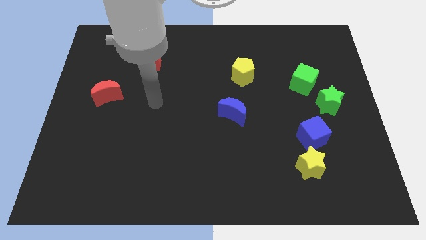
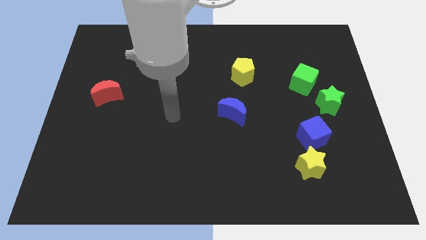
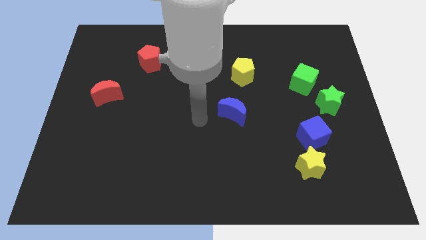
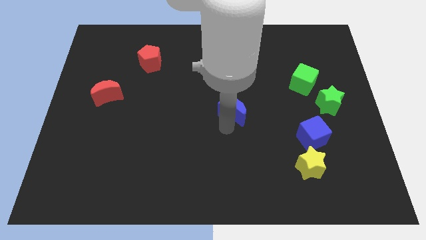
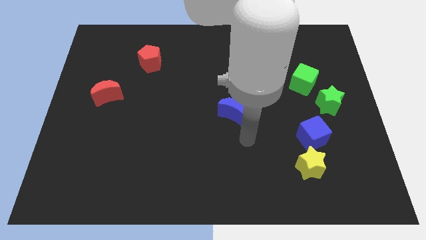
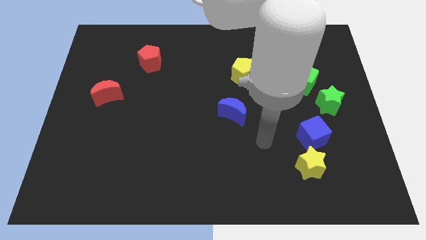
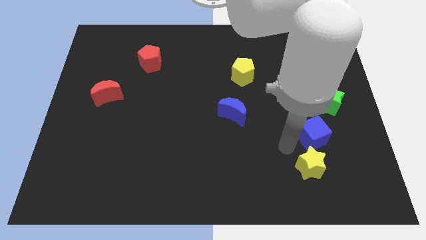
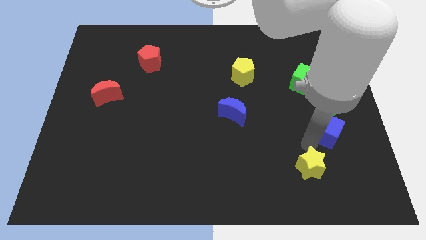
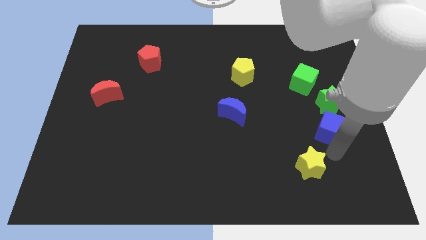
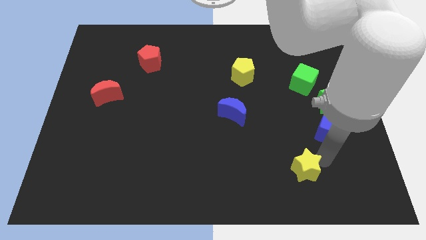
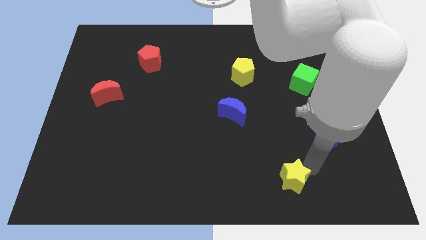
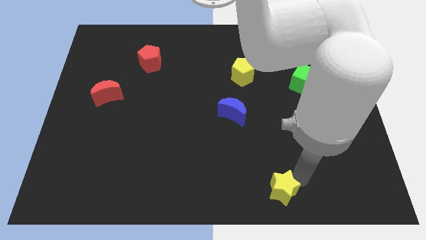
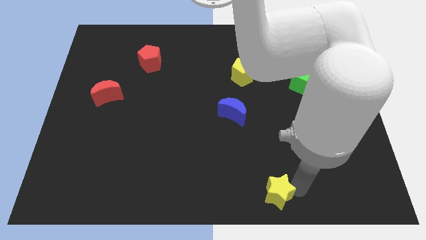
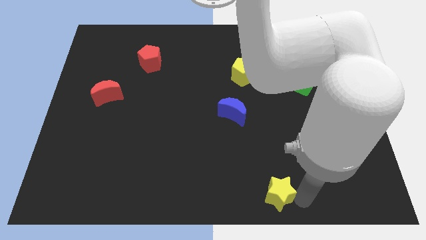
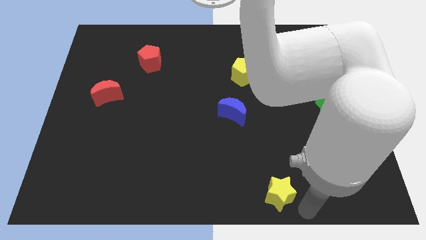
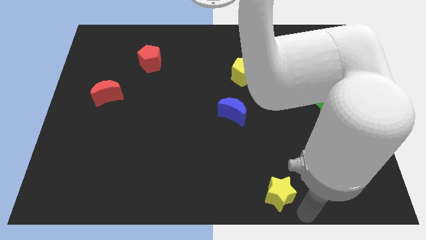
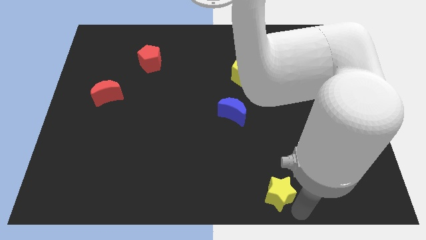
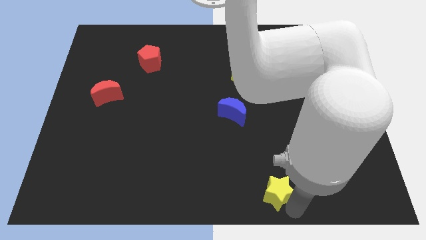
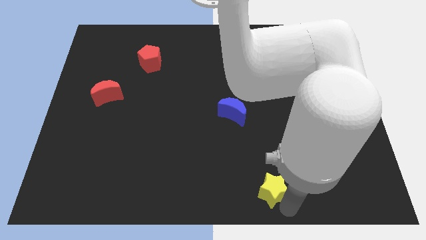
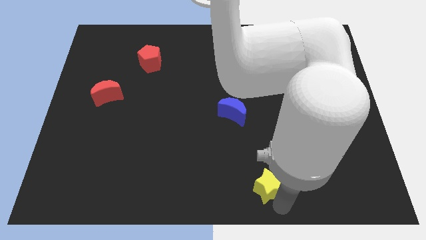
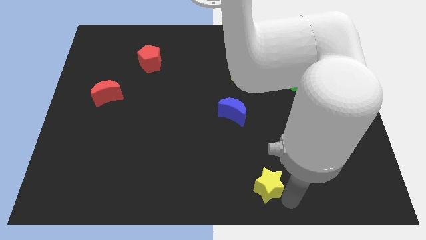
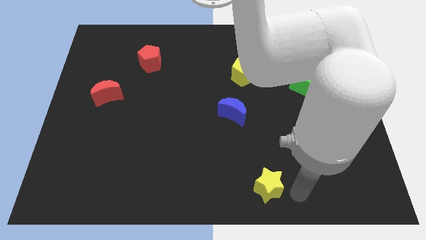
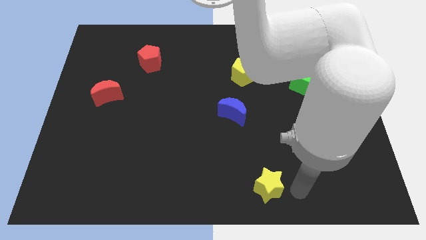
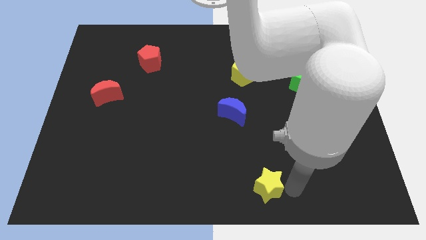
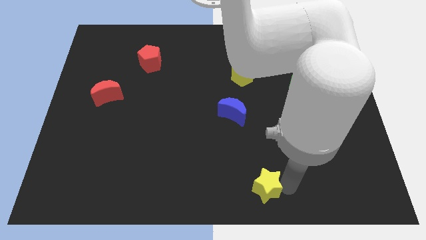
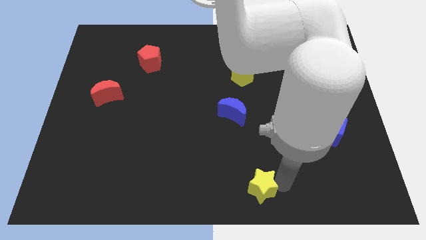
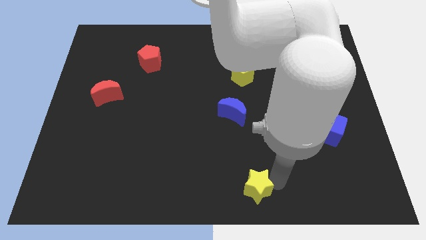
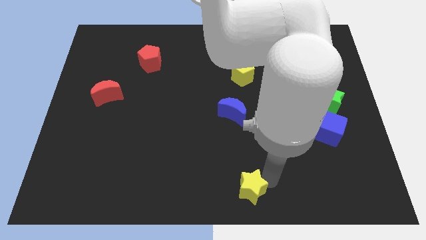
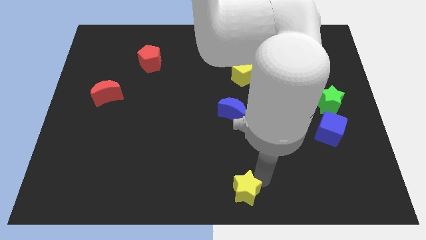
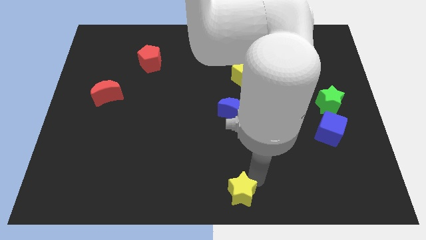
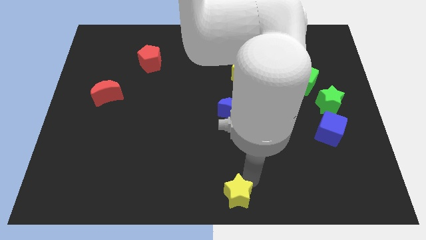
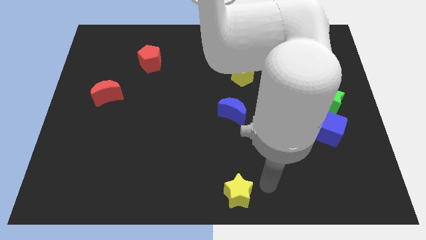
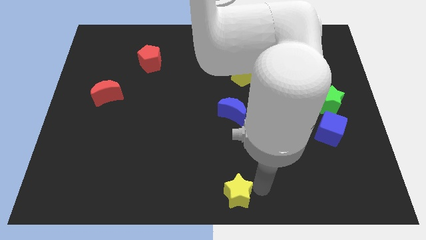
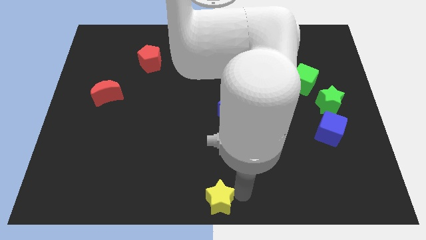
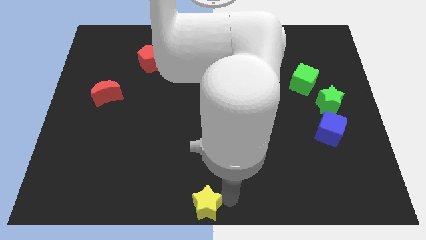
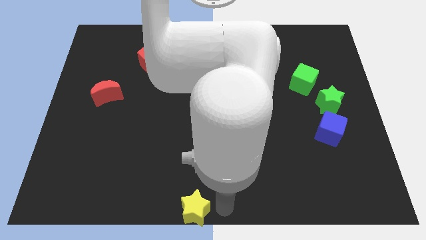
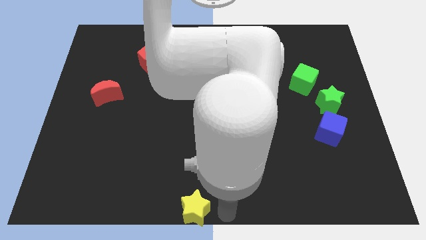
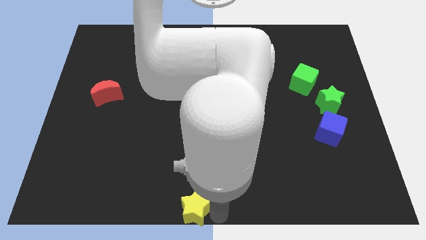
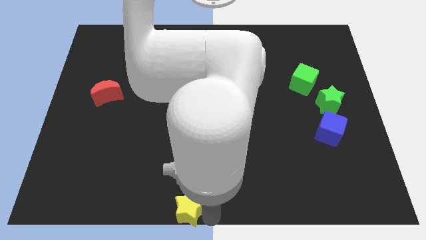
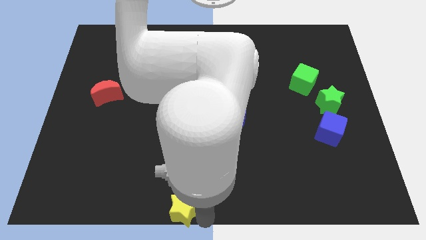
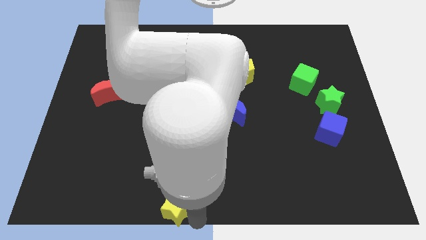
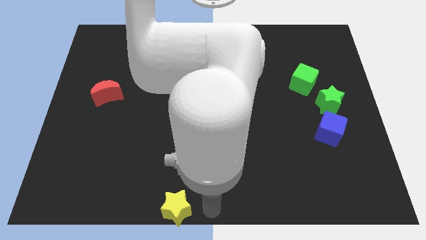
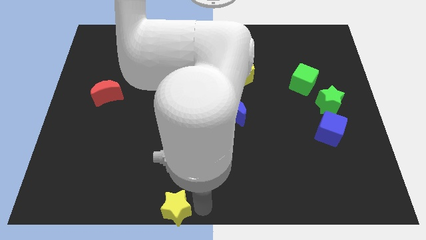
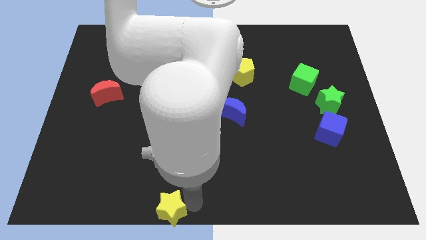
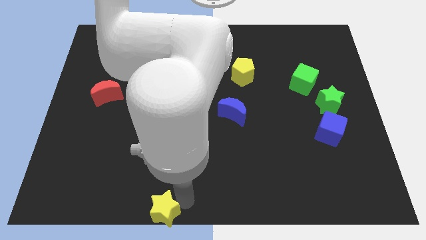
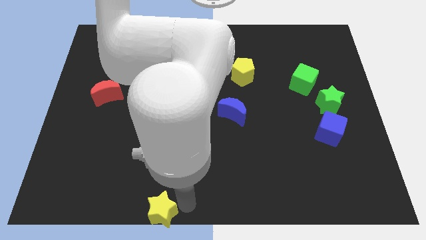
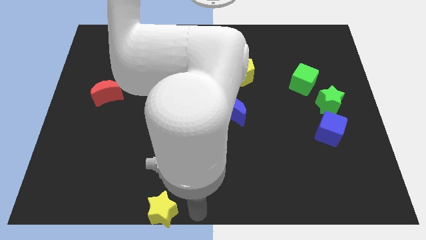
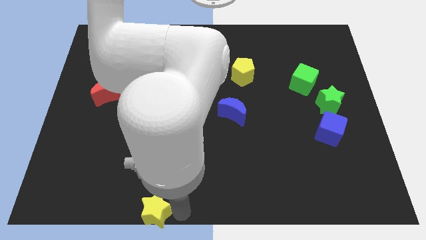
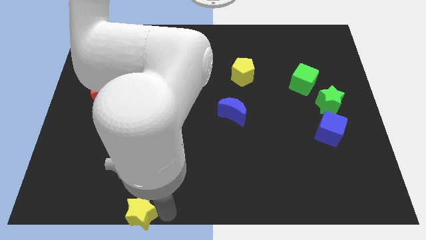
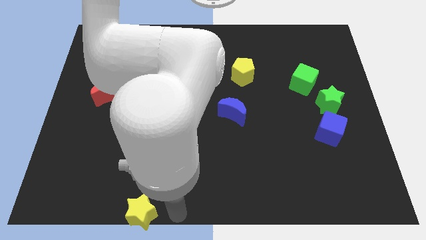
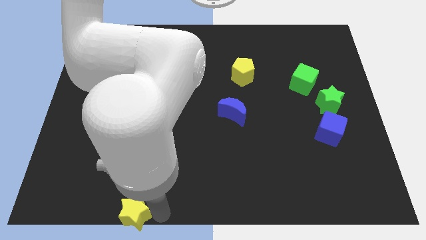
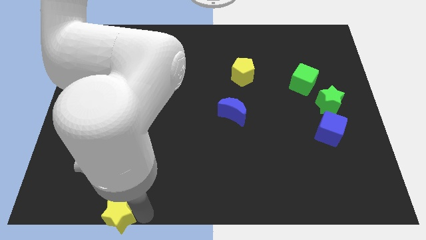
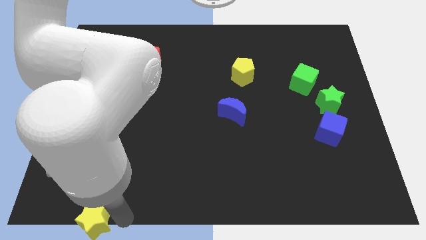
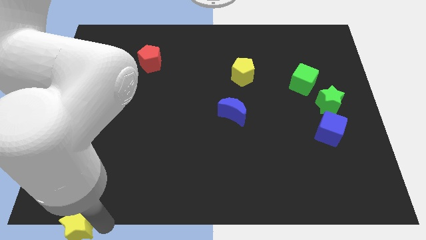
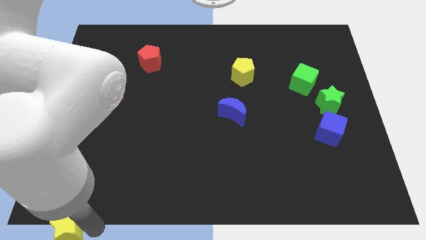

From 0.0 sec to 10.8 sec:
push the yellow star to the lower left corner

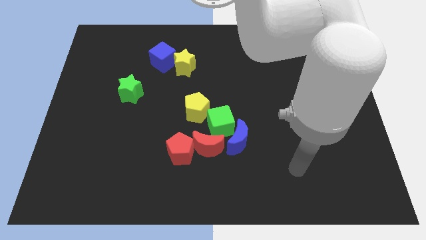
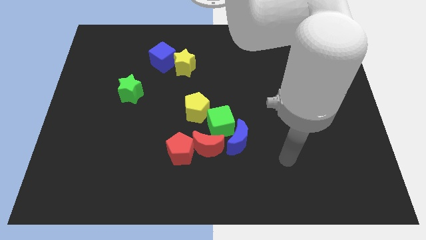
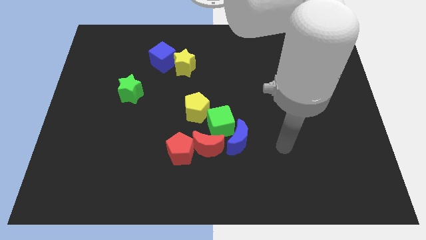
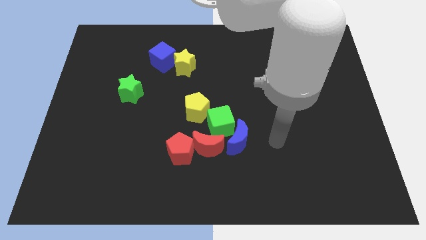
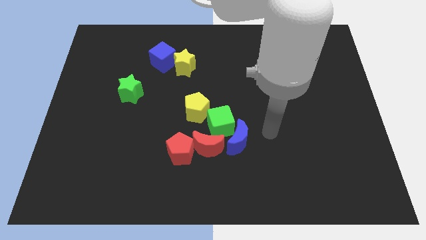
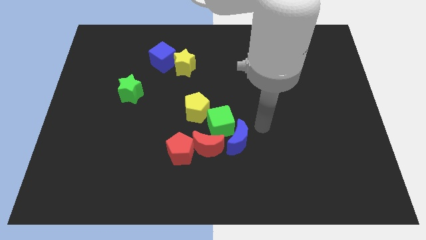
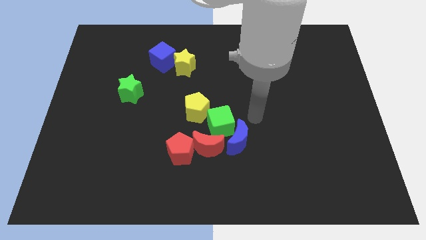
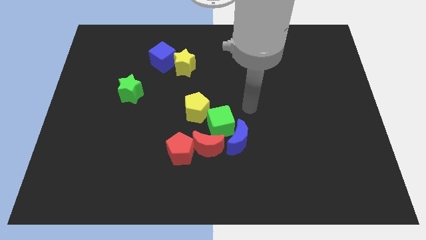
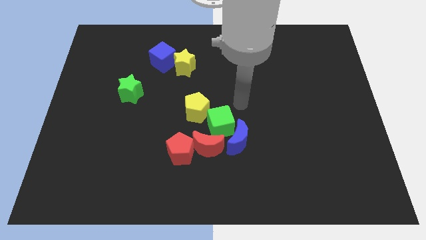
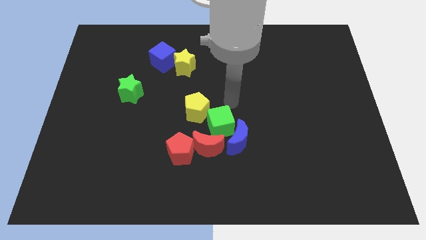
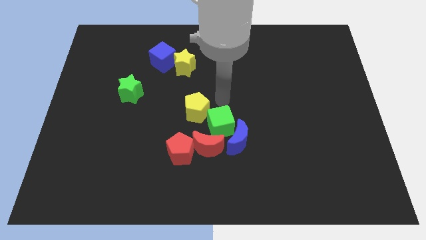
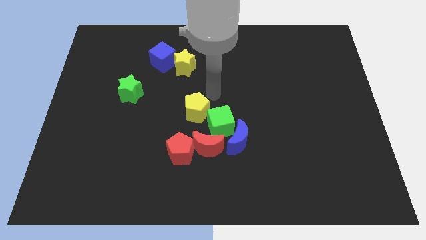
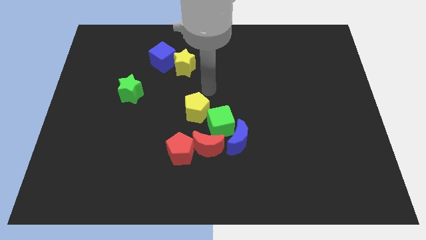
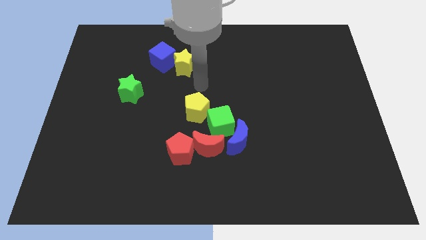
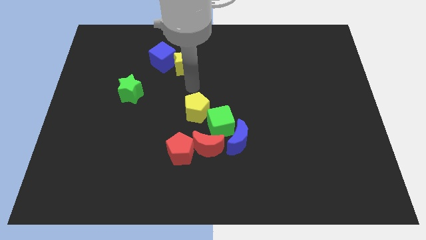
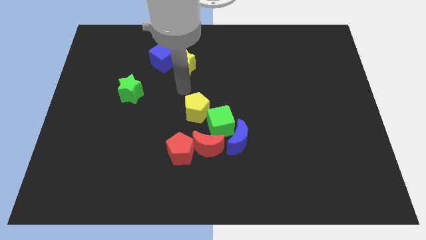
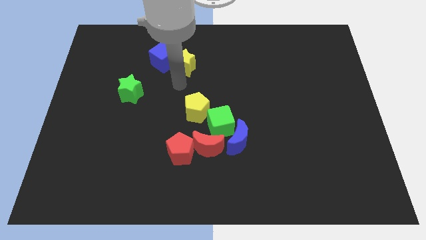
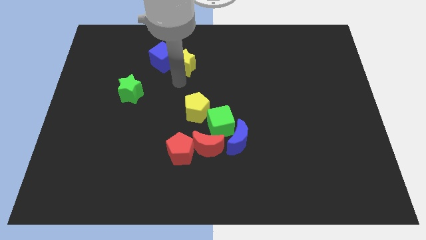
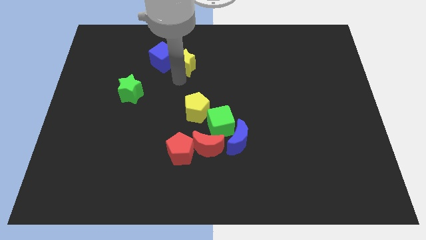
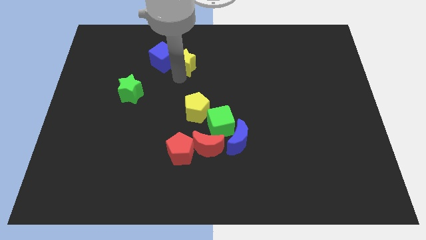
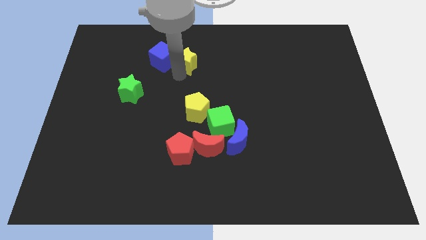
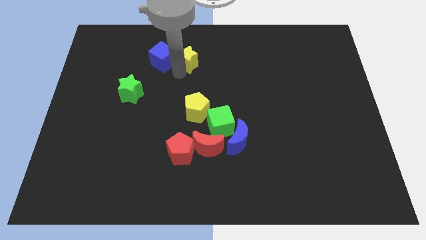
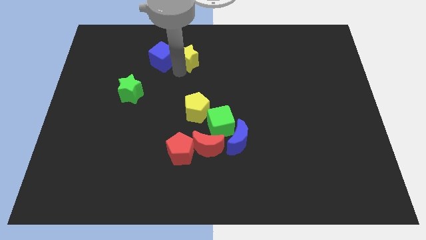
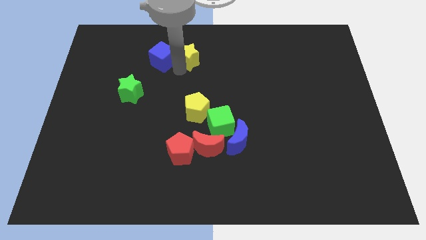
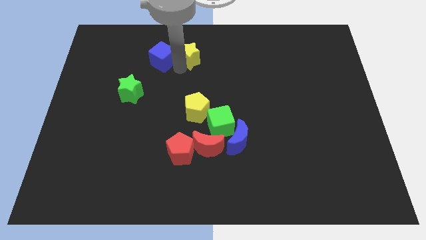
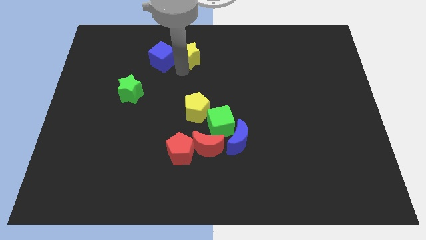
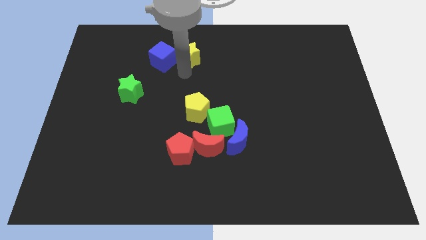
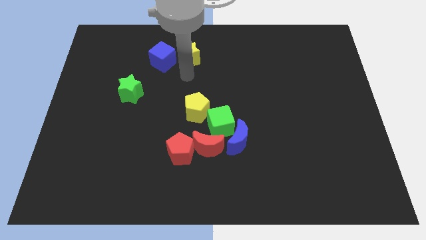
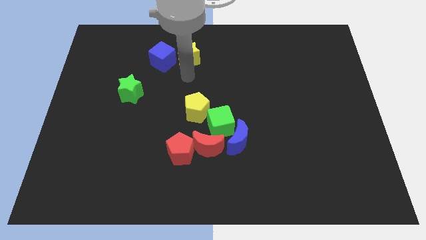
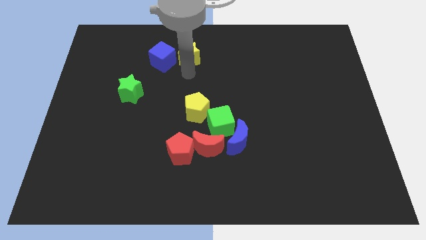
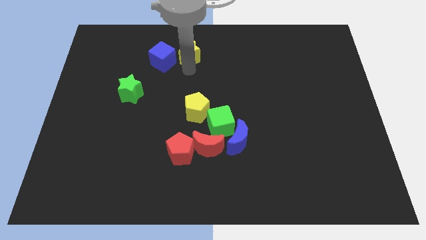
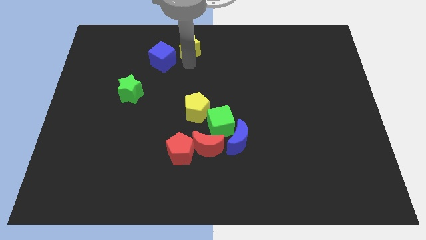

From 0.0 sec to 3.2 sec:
put the yellow star to the top
